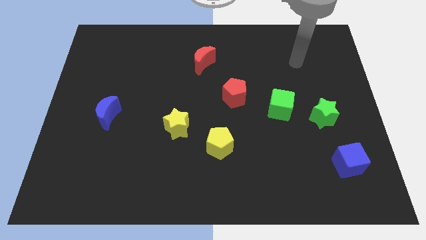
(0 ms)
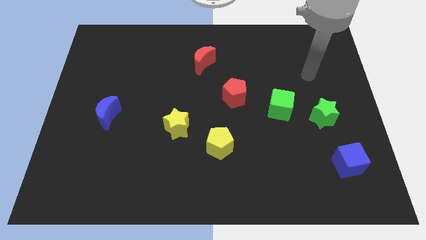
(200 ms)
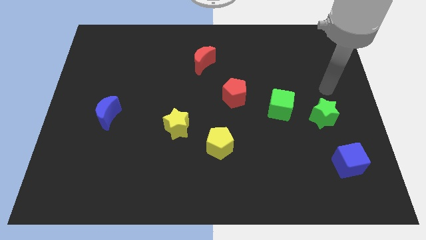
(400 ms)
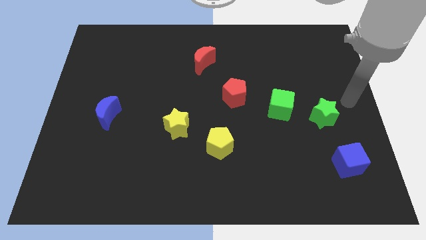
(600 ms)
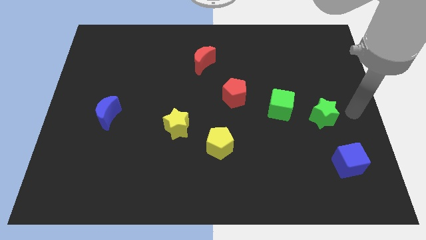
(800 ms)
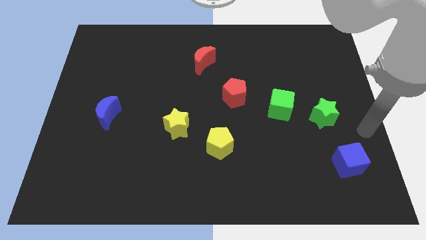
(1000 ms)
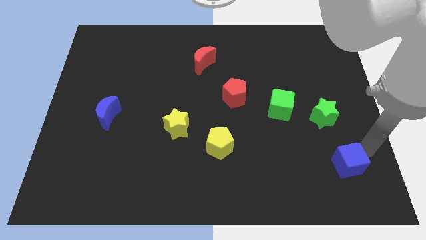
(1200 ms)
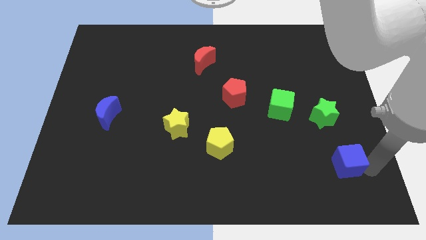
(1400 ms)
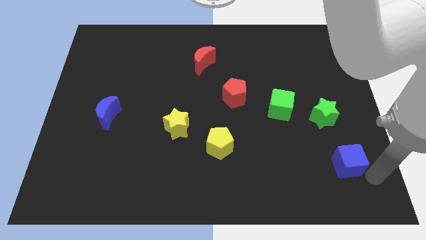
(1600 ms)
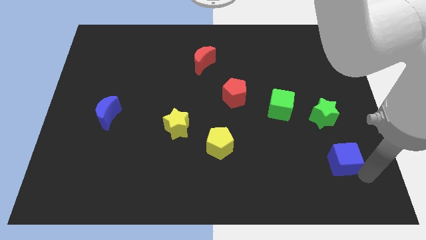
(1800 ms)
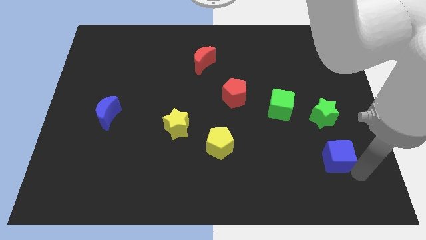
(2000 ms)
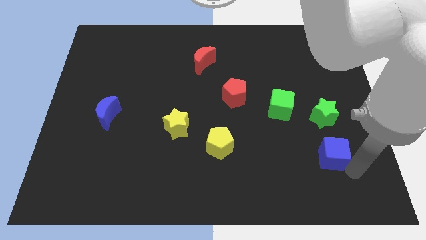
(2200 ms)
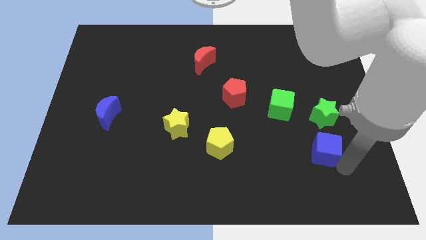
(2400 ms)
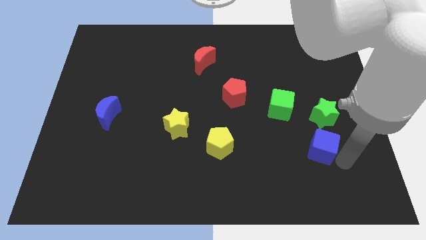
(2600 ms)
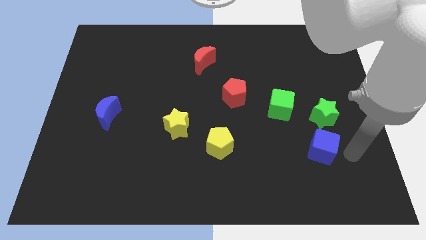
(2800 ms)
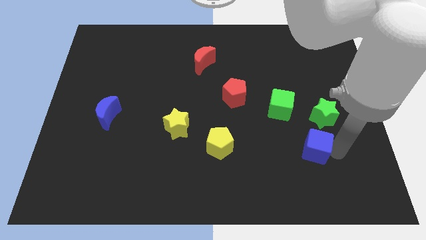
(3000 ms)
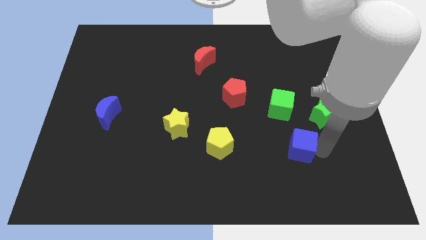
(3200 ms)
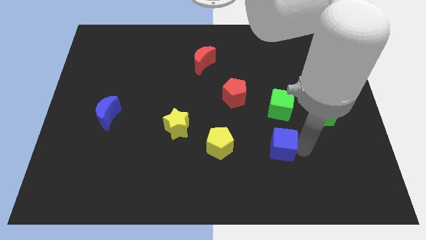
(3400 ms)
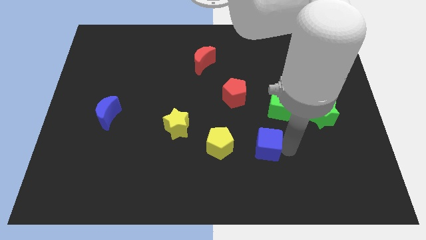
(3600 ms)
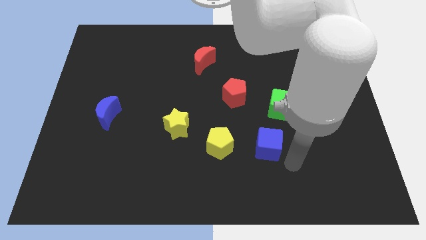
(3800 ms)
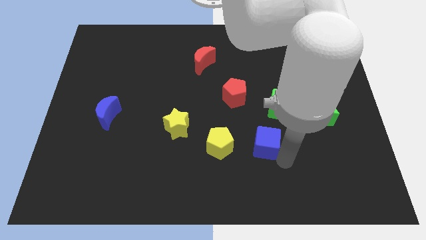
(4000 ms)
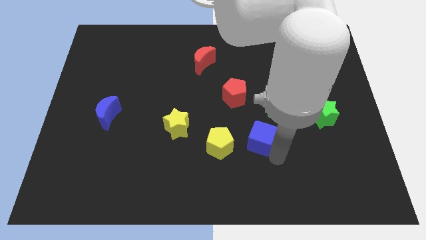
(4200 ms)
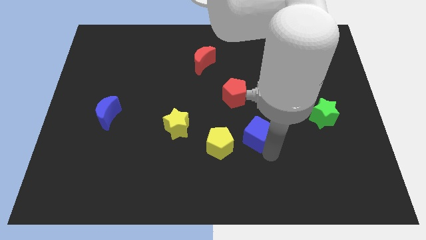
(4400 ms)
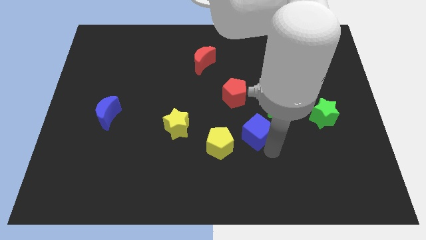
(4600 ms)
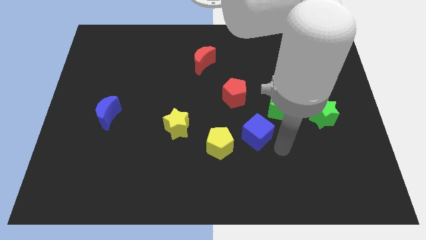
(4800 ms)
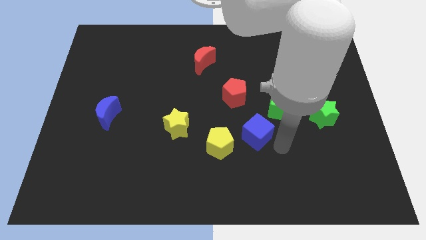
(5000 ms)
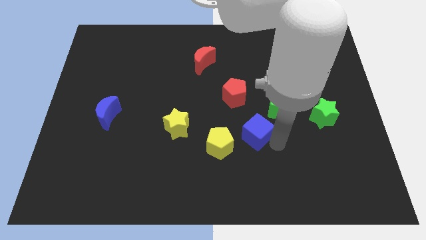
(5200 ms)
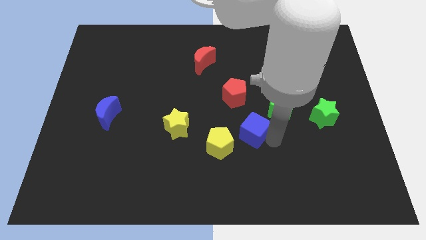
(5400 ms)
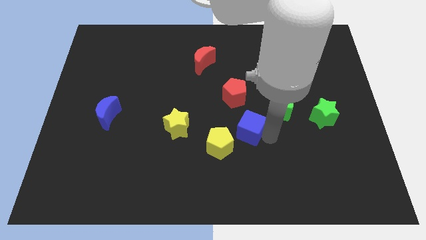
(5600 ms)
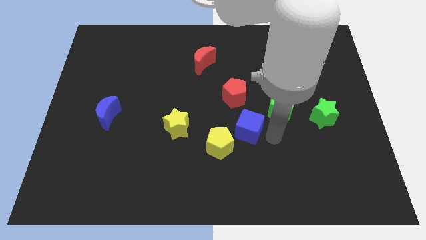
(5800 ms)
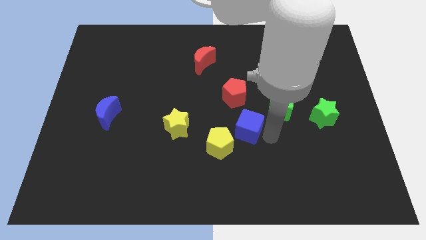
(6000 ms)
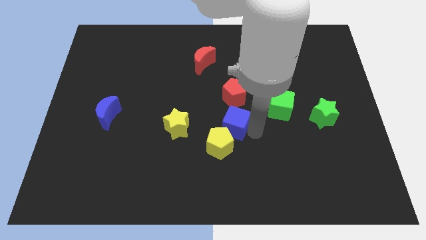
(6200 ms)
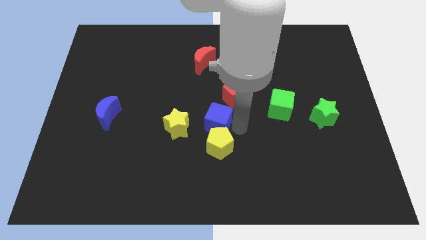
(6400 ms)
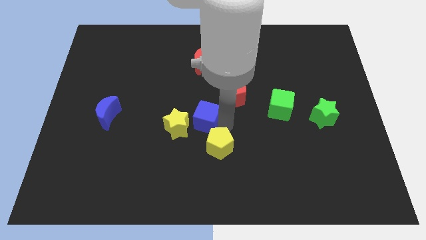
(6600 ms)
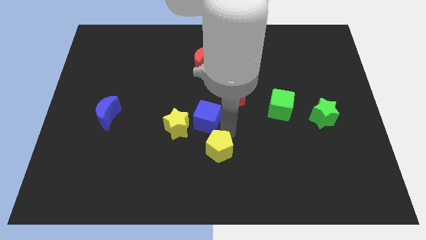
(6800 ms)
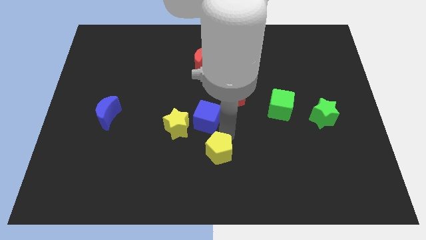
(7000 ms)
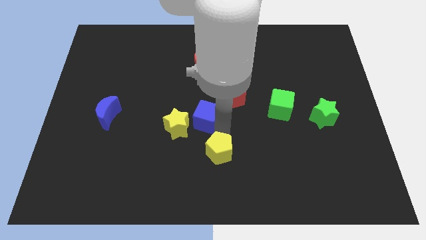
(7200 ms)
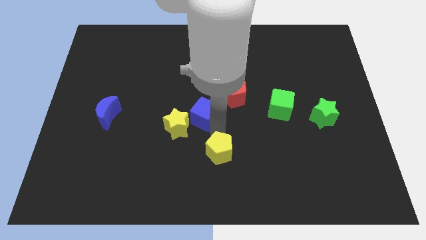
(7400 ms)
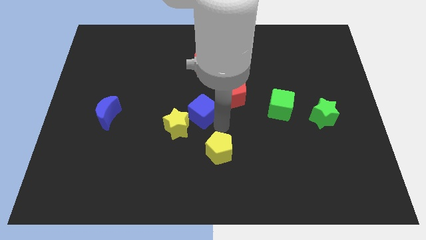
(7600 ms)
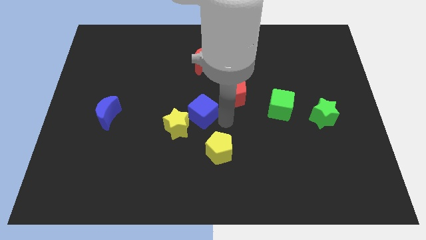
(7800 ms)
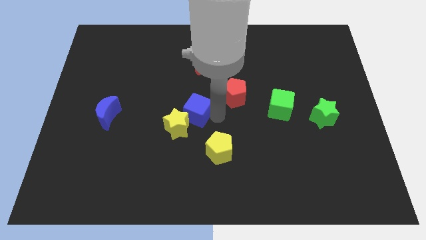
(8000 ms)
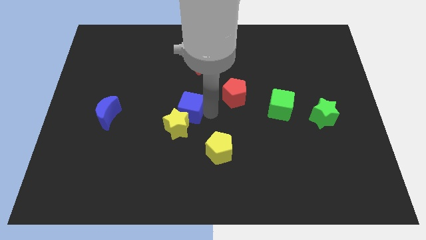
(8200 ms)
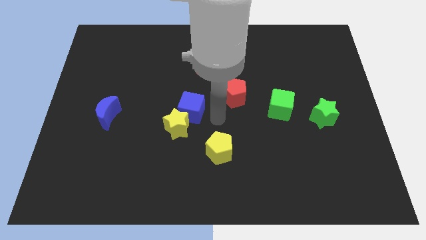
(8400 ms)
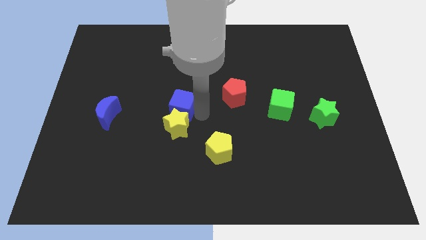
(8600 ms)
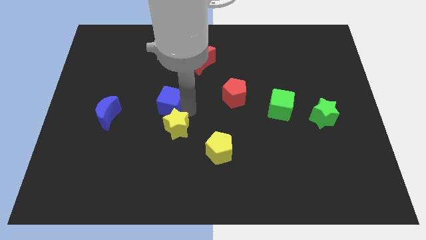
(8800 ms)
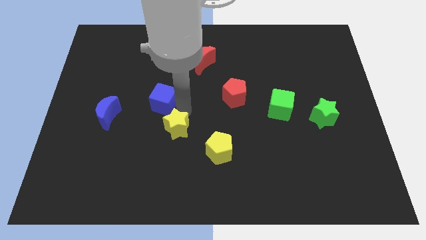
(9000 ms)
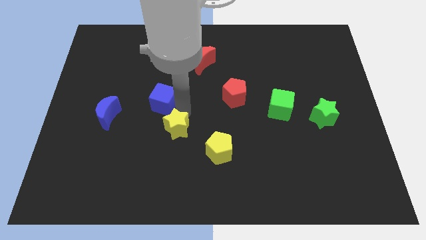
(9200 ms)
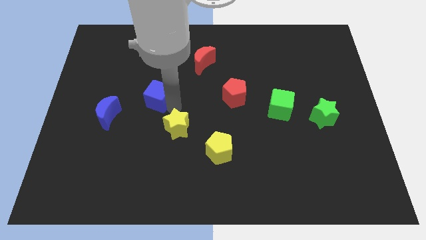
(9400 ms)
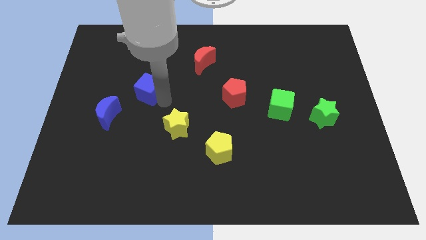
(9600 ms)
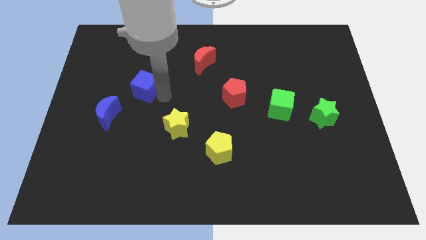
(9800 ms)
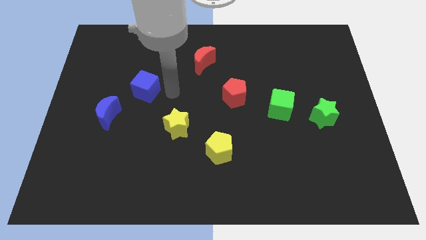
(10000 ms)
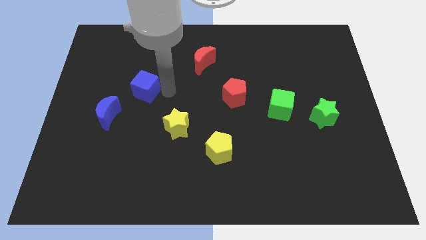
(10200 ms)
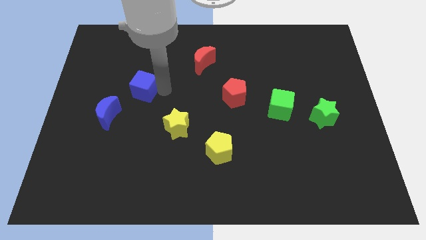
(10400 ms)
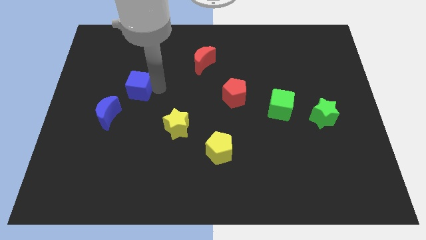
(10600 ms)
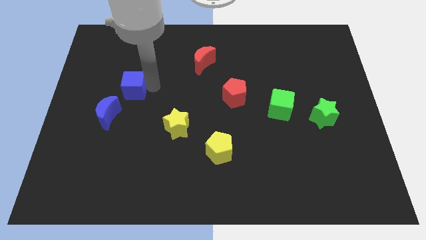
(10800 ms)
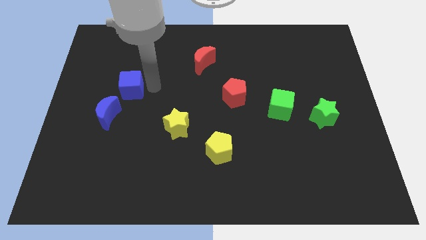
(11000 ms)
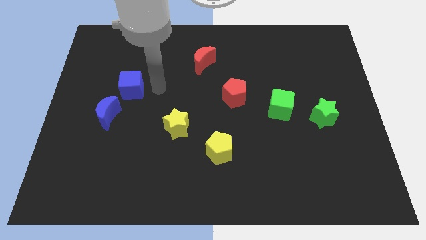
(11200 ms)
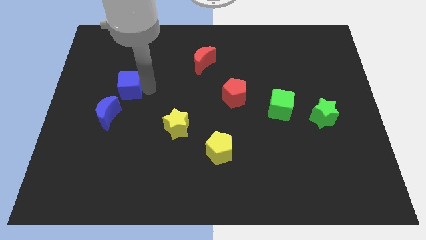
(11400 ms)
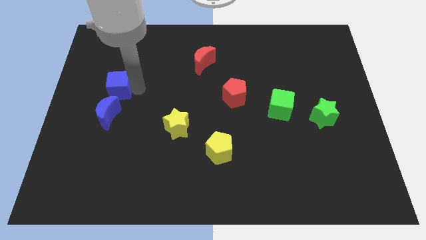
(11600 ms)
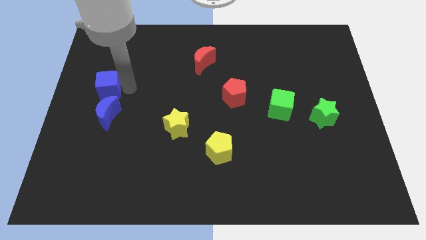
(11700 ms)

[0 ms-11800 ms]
put the blue cube to the left side of the board

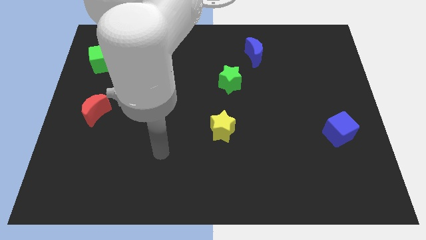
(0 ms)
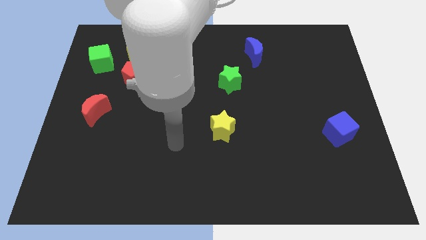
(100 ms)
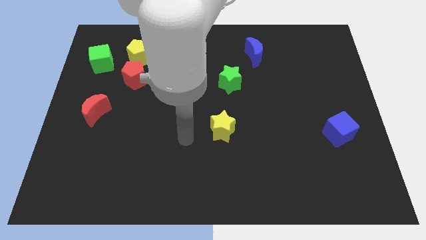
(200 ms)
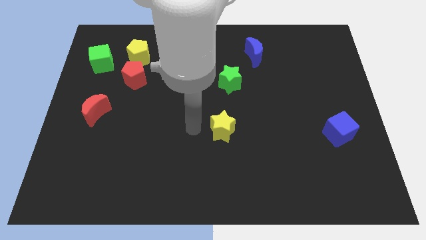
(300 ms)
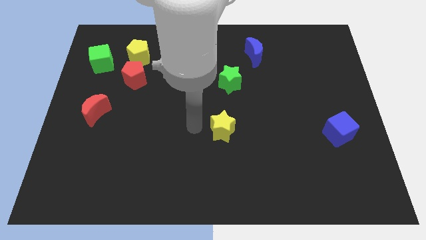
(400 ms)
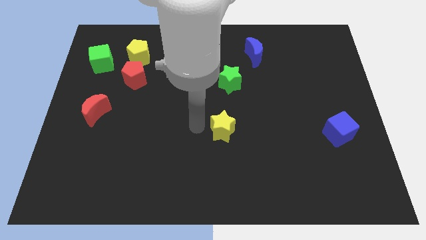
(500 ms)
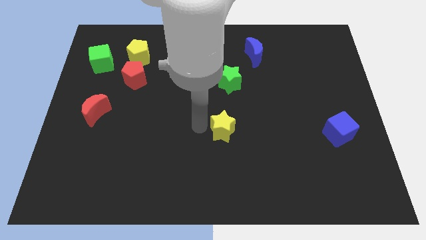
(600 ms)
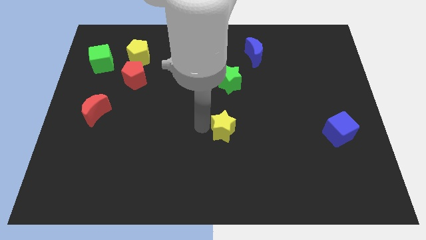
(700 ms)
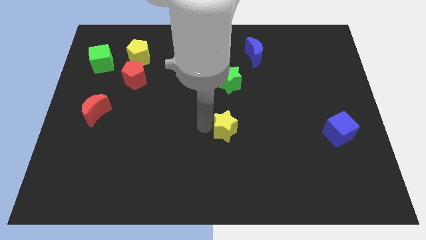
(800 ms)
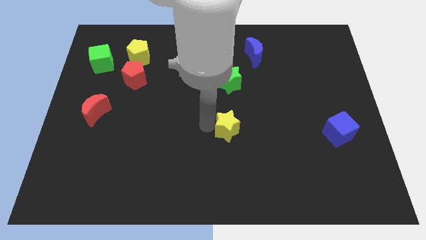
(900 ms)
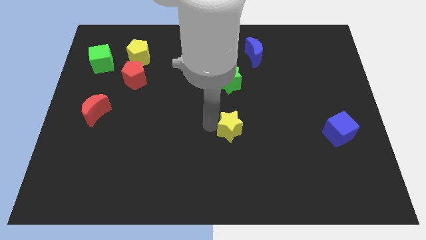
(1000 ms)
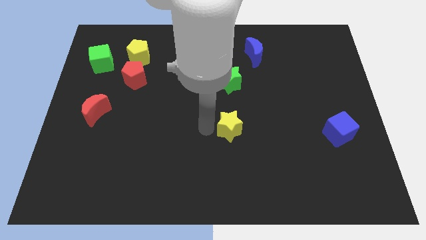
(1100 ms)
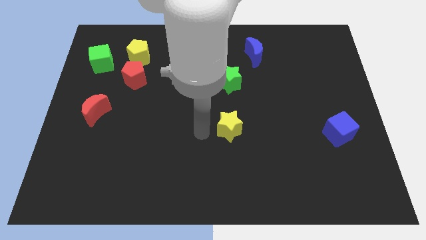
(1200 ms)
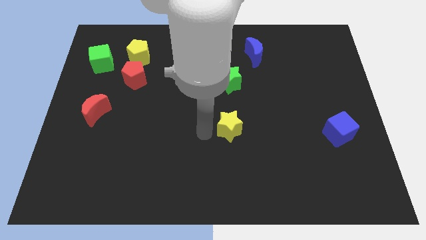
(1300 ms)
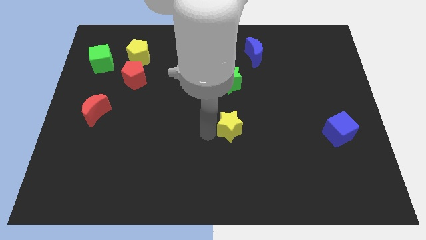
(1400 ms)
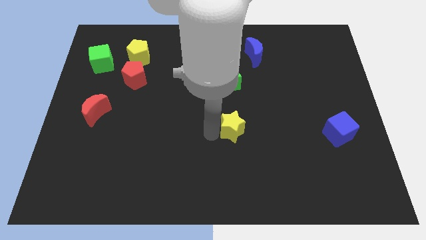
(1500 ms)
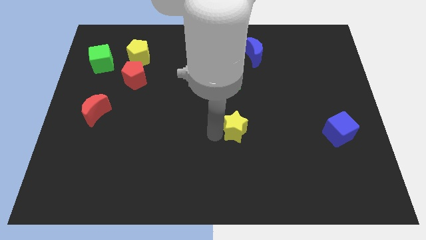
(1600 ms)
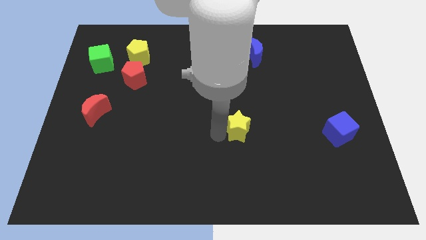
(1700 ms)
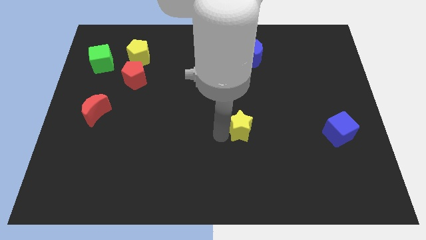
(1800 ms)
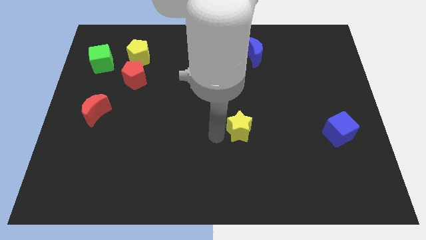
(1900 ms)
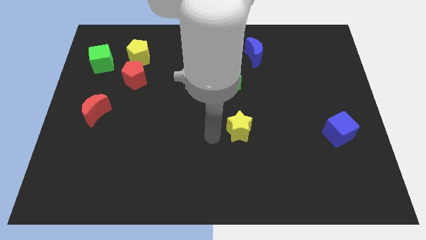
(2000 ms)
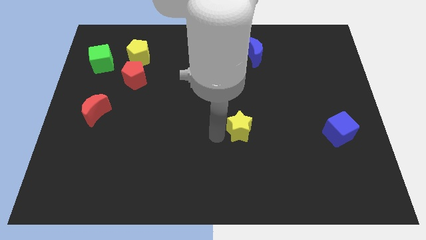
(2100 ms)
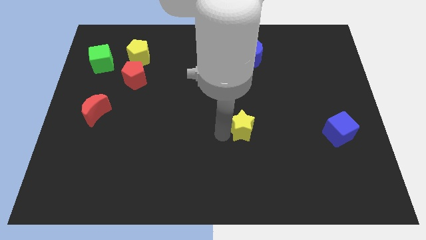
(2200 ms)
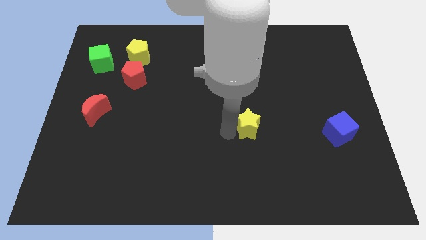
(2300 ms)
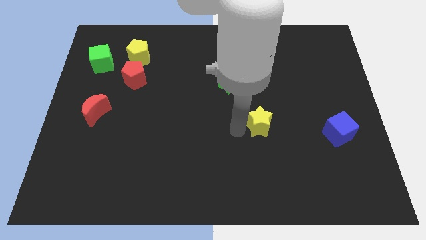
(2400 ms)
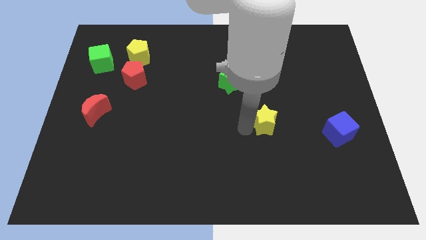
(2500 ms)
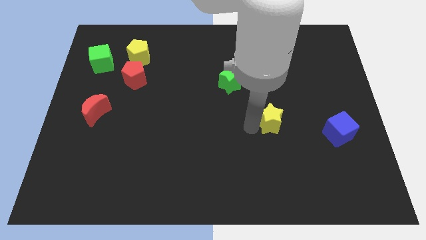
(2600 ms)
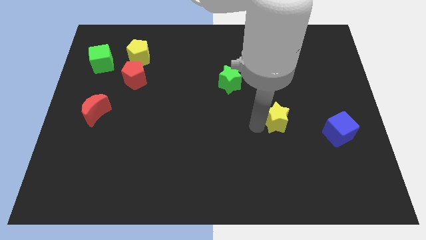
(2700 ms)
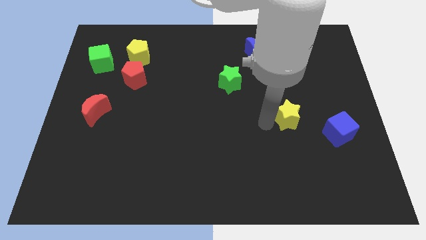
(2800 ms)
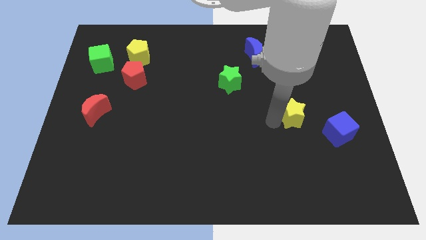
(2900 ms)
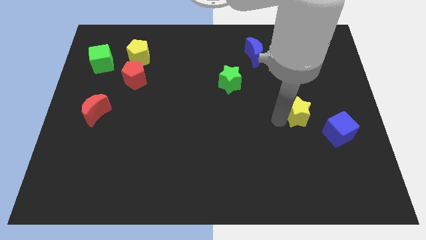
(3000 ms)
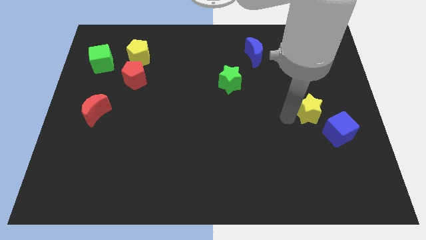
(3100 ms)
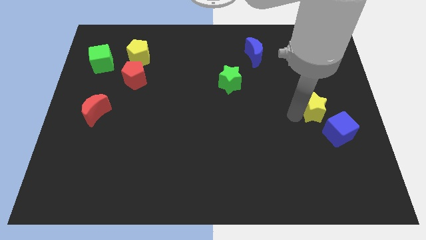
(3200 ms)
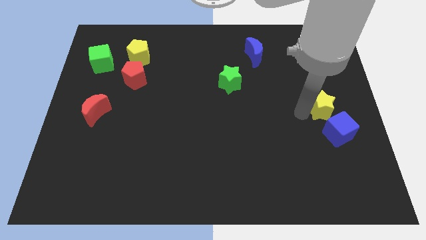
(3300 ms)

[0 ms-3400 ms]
move the yellow star to the center right
